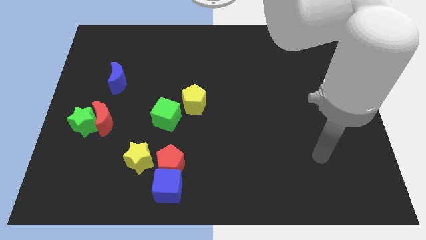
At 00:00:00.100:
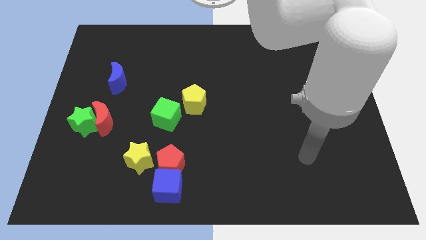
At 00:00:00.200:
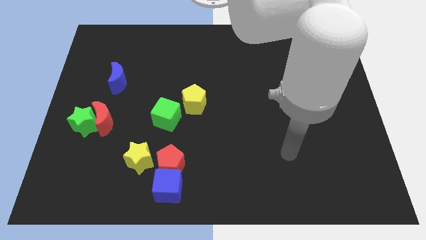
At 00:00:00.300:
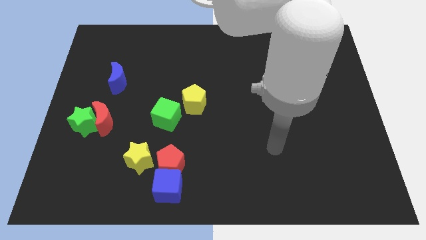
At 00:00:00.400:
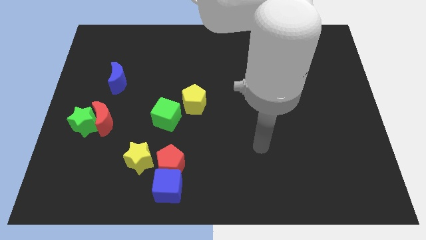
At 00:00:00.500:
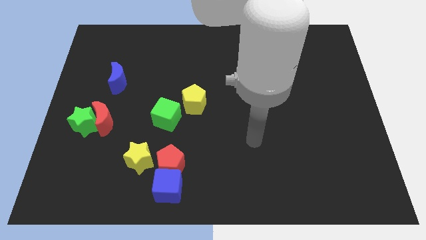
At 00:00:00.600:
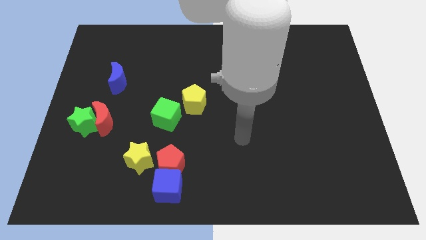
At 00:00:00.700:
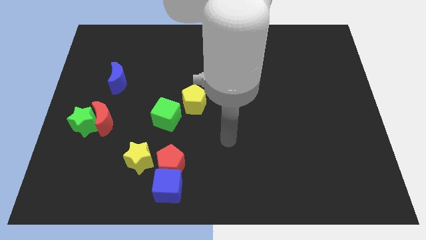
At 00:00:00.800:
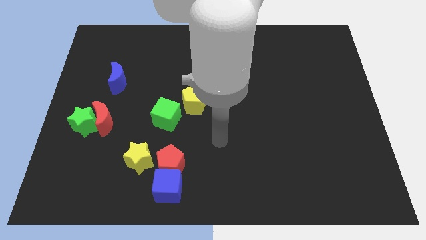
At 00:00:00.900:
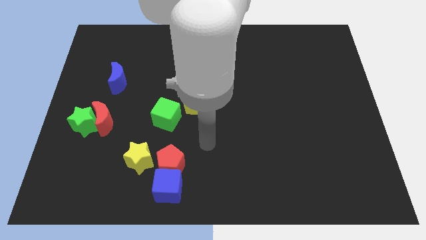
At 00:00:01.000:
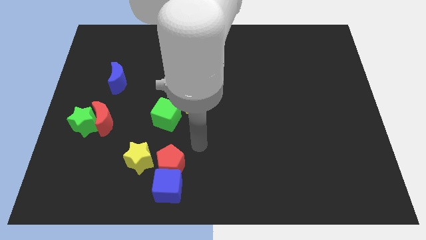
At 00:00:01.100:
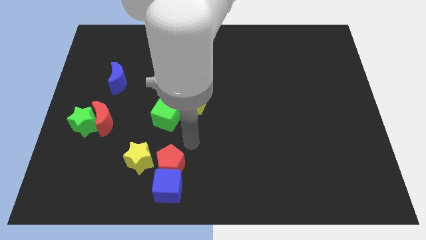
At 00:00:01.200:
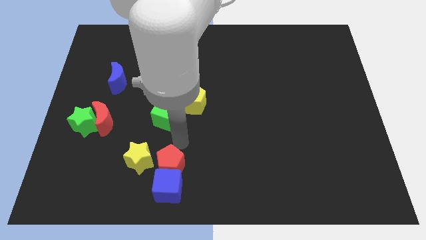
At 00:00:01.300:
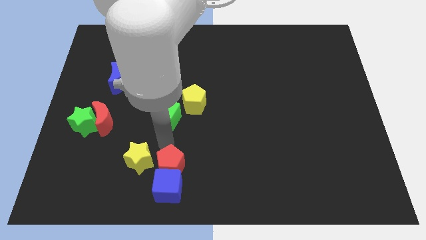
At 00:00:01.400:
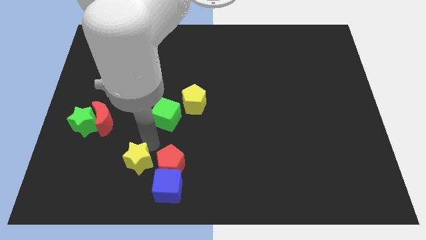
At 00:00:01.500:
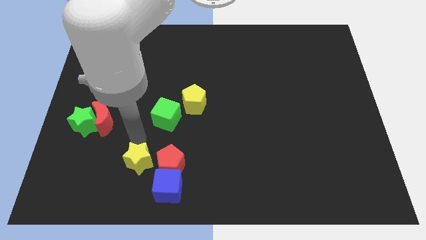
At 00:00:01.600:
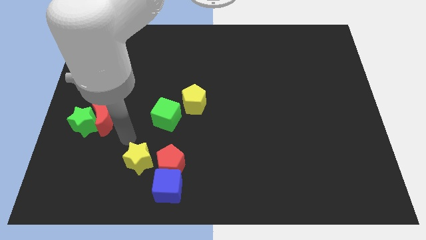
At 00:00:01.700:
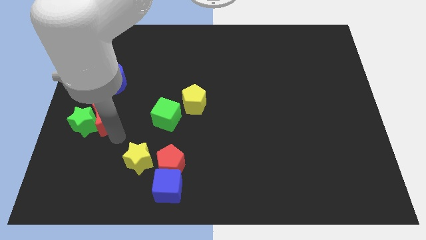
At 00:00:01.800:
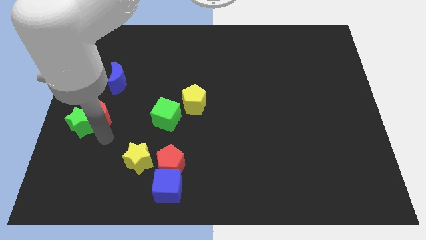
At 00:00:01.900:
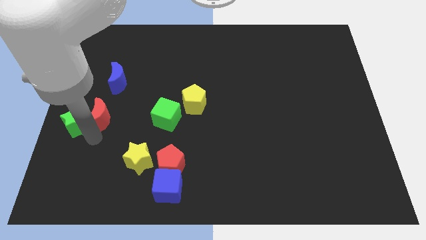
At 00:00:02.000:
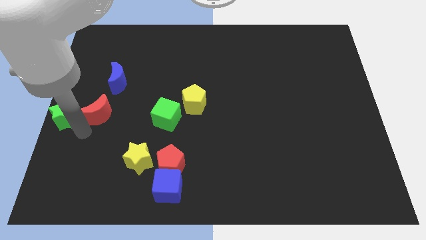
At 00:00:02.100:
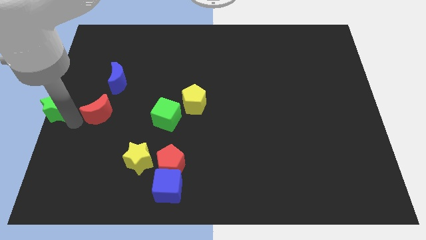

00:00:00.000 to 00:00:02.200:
move the red moon away from the green star

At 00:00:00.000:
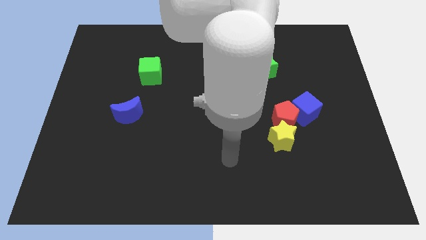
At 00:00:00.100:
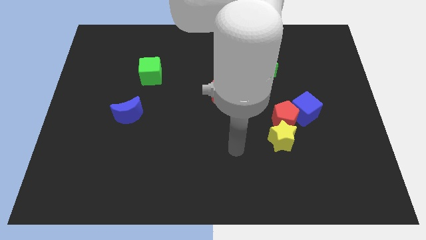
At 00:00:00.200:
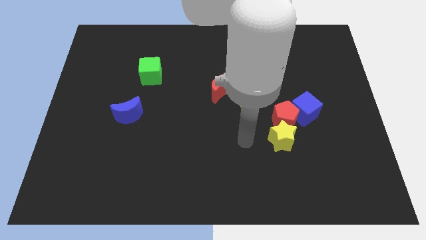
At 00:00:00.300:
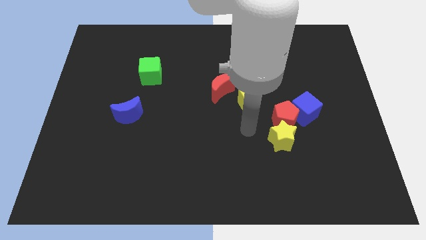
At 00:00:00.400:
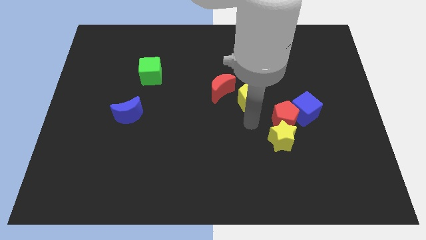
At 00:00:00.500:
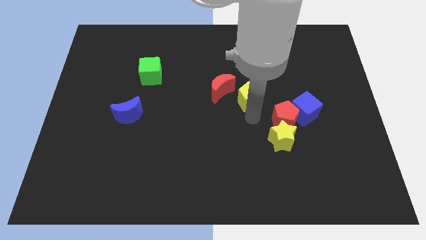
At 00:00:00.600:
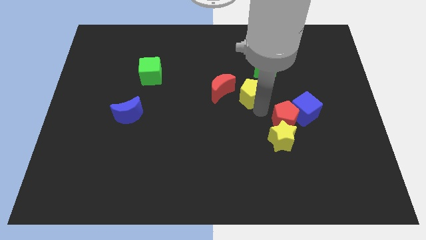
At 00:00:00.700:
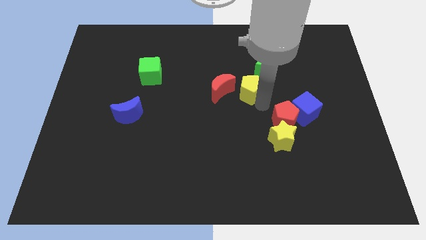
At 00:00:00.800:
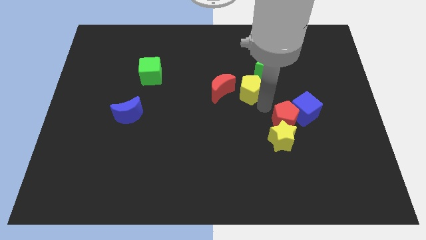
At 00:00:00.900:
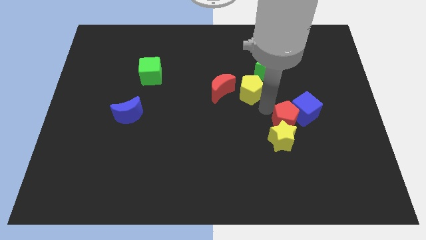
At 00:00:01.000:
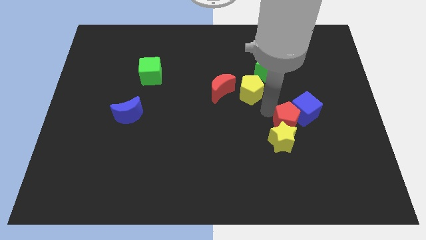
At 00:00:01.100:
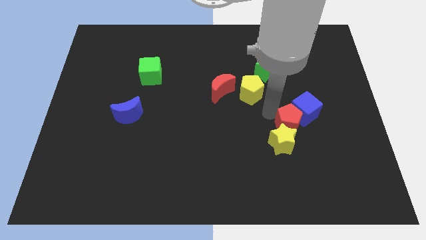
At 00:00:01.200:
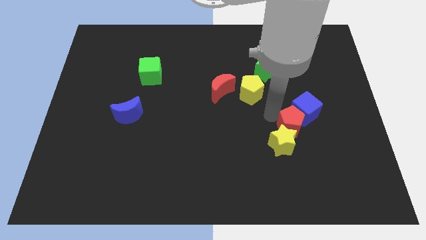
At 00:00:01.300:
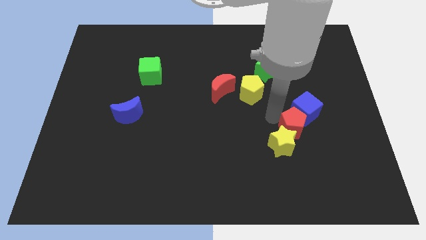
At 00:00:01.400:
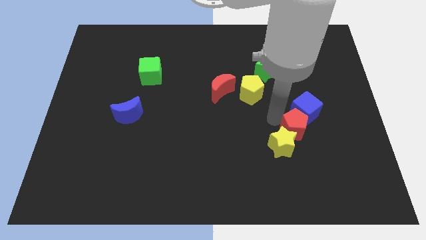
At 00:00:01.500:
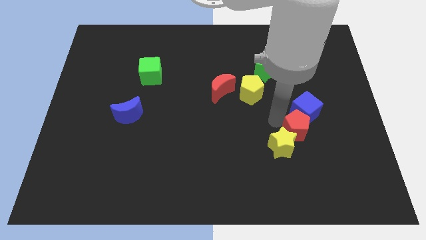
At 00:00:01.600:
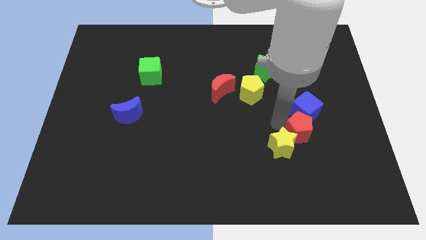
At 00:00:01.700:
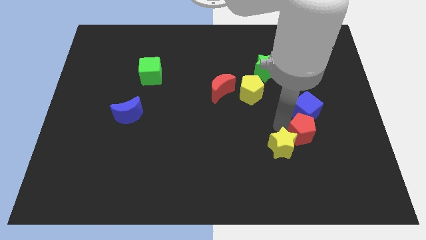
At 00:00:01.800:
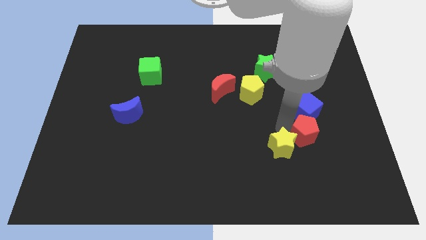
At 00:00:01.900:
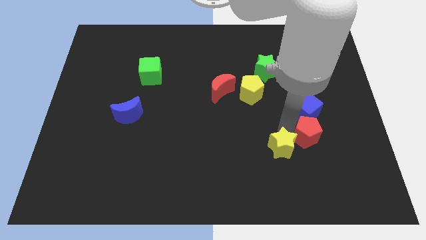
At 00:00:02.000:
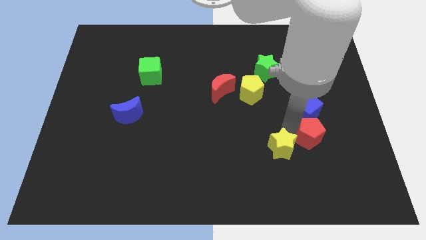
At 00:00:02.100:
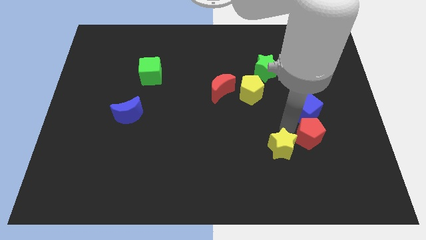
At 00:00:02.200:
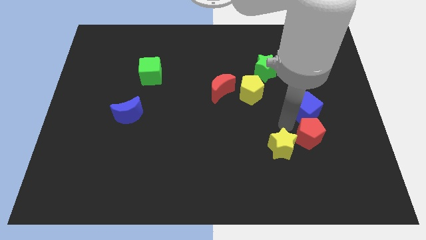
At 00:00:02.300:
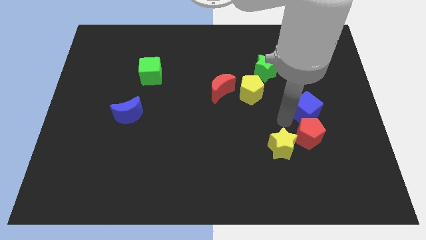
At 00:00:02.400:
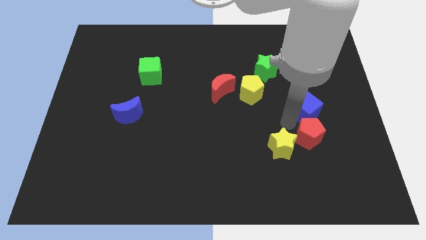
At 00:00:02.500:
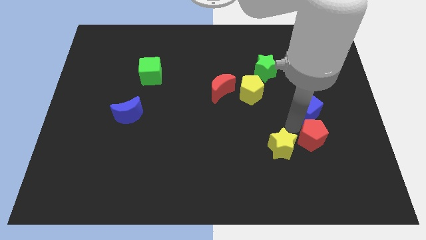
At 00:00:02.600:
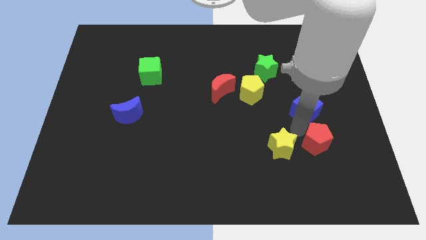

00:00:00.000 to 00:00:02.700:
pull the red pentagon apart from the yellow star, blue cube, and yellow pentagon

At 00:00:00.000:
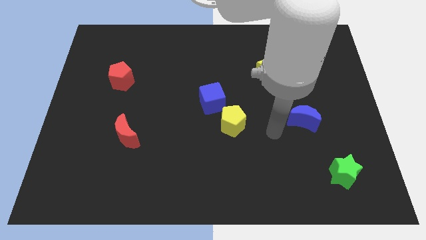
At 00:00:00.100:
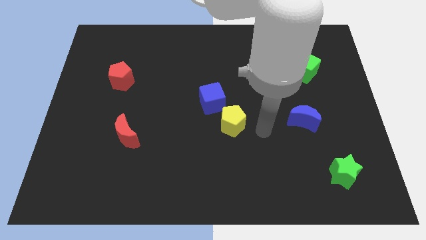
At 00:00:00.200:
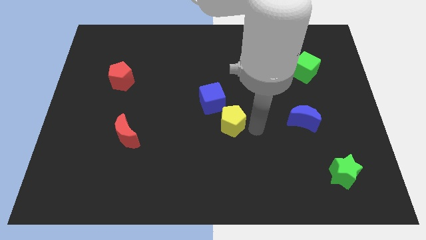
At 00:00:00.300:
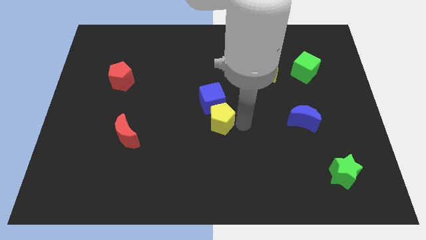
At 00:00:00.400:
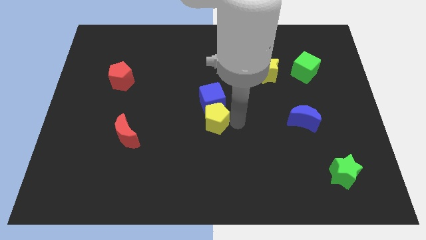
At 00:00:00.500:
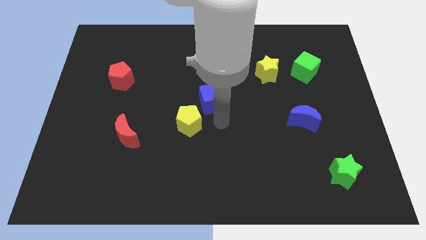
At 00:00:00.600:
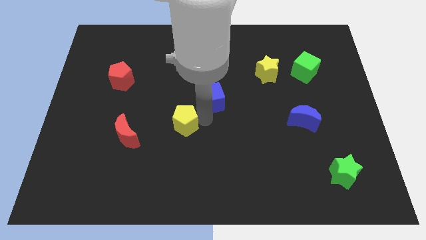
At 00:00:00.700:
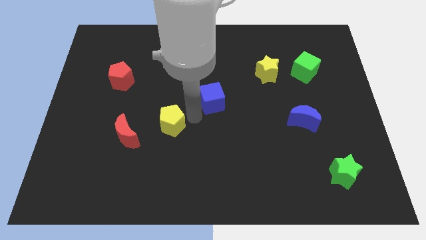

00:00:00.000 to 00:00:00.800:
pull the blue cube apart from the yellow pentagon

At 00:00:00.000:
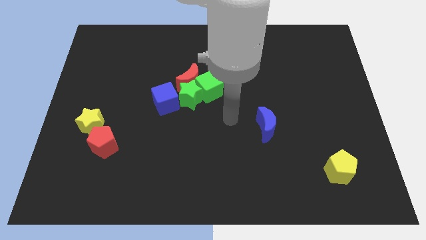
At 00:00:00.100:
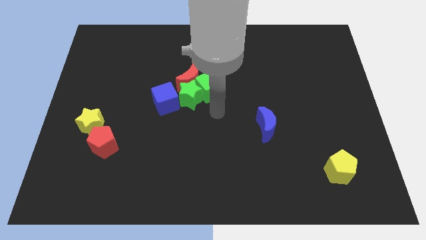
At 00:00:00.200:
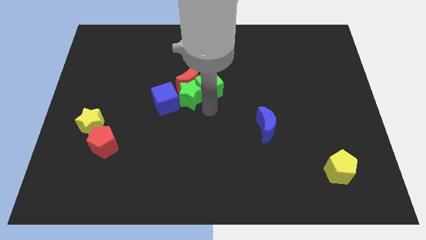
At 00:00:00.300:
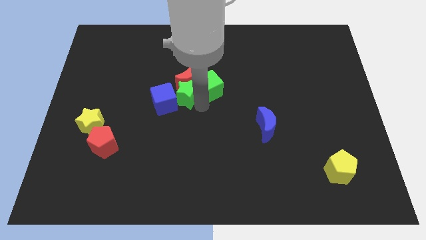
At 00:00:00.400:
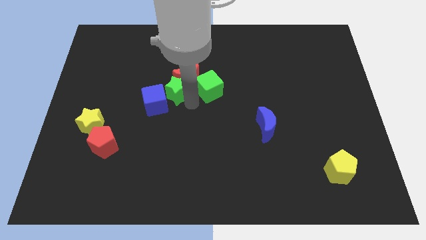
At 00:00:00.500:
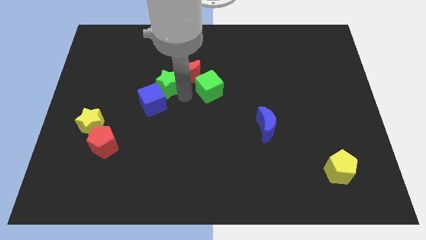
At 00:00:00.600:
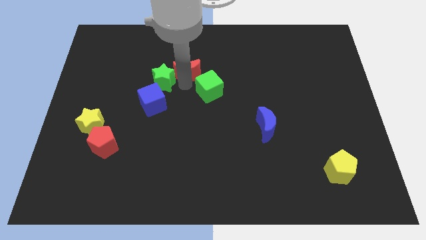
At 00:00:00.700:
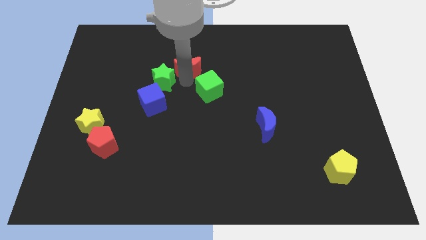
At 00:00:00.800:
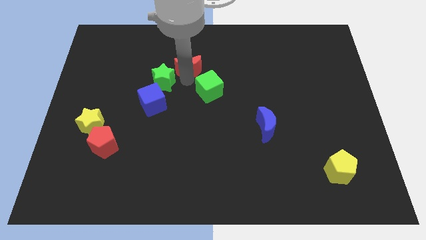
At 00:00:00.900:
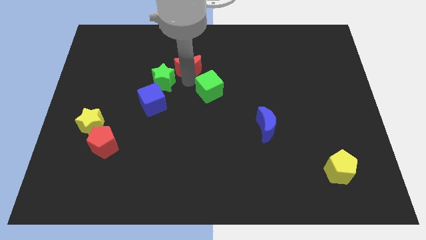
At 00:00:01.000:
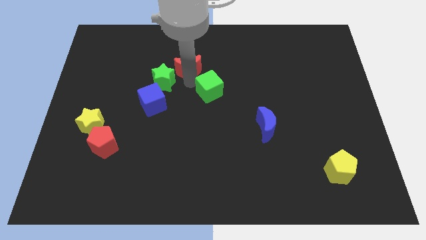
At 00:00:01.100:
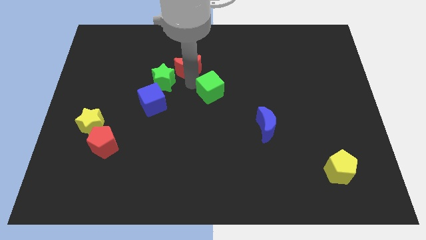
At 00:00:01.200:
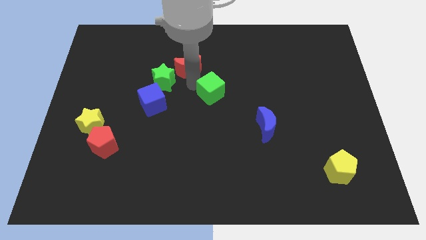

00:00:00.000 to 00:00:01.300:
separate the green cube from the green star and red moon

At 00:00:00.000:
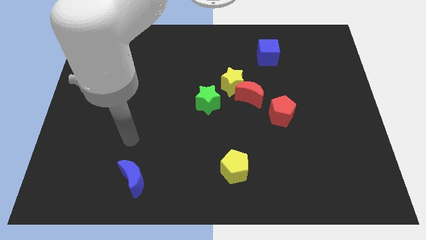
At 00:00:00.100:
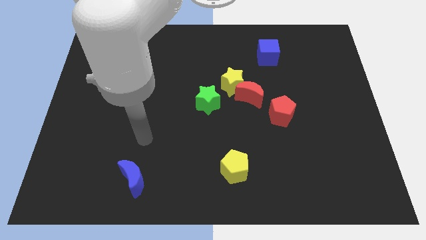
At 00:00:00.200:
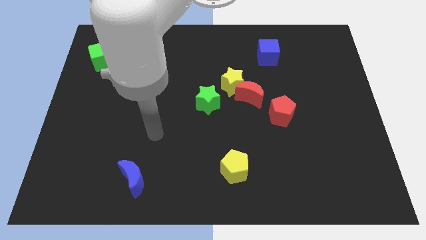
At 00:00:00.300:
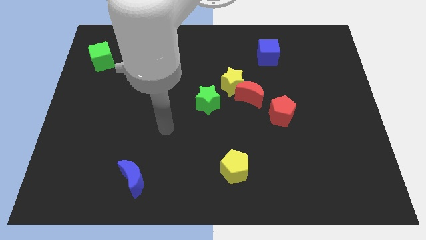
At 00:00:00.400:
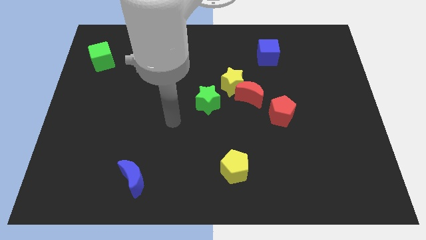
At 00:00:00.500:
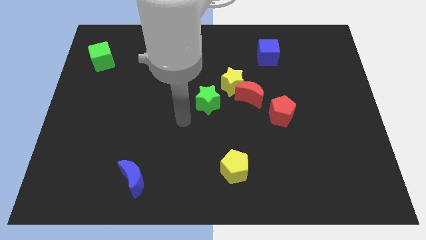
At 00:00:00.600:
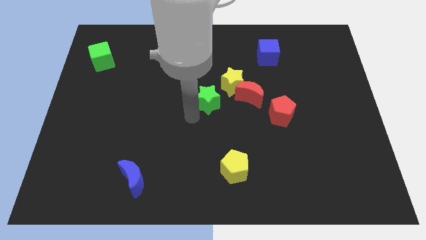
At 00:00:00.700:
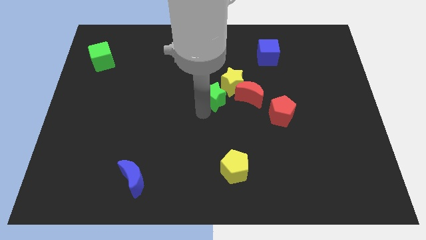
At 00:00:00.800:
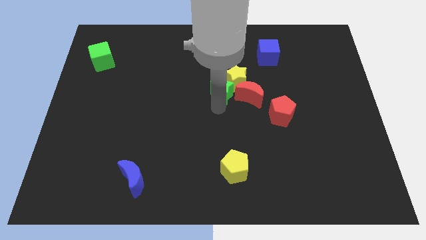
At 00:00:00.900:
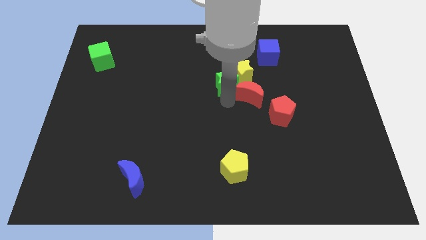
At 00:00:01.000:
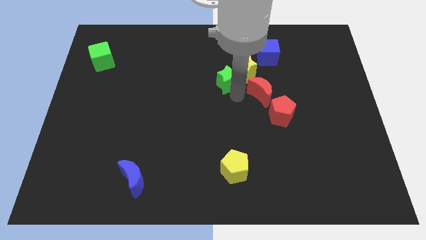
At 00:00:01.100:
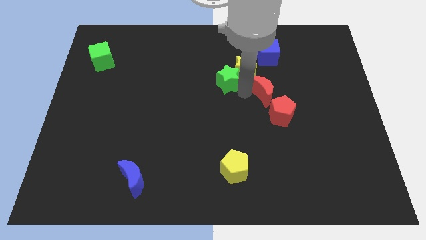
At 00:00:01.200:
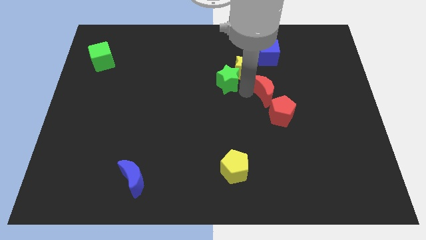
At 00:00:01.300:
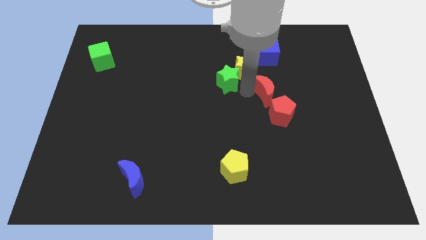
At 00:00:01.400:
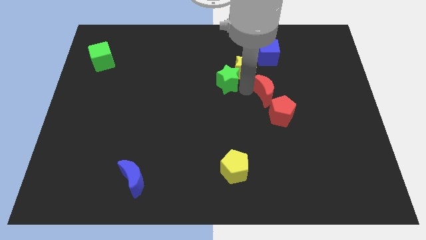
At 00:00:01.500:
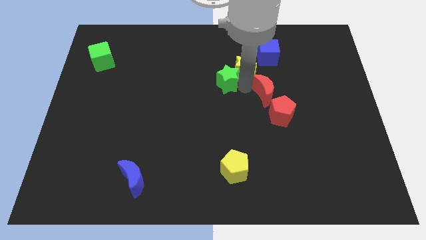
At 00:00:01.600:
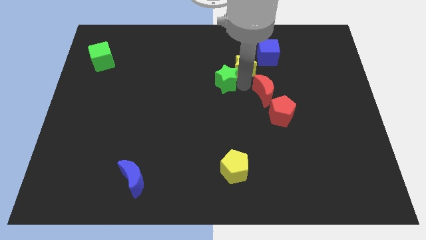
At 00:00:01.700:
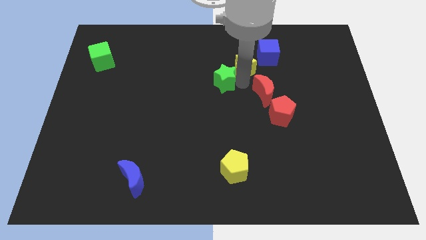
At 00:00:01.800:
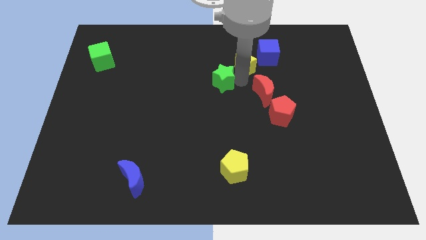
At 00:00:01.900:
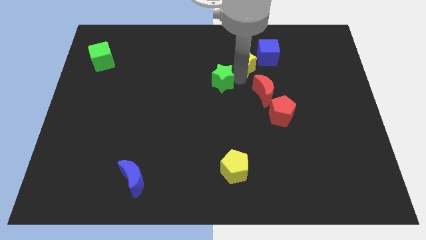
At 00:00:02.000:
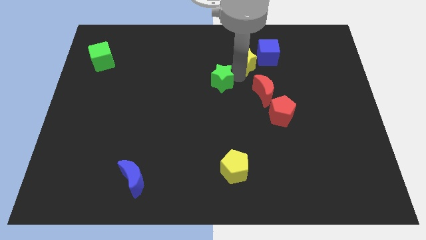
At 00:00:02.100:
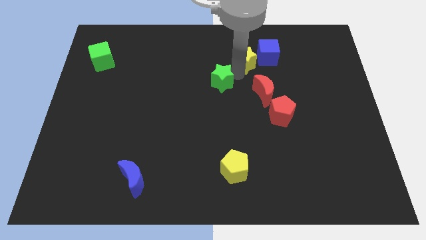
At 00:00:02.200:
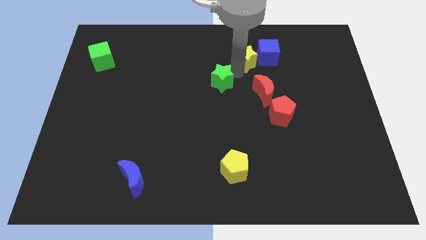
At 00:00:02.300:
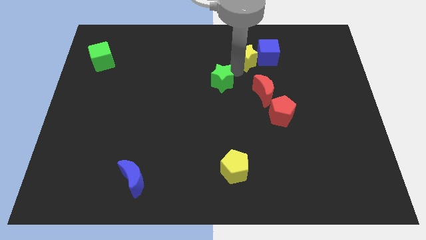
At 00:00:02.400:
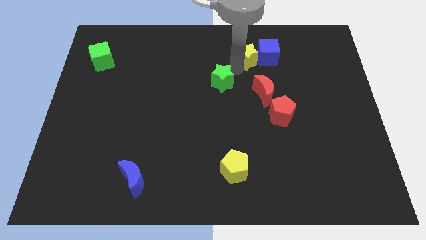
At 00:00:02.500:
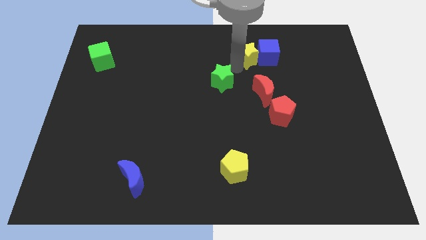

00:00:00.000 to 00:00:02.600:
pull the yellow star apart from the red moon and green star
